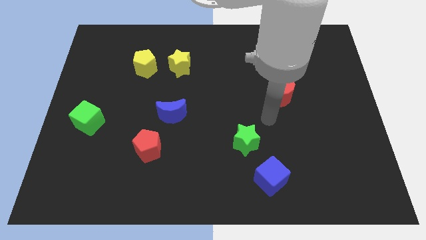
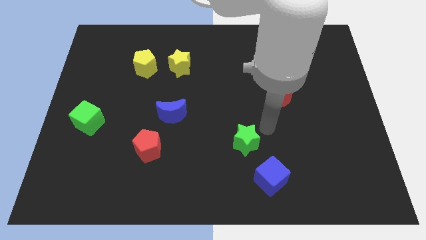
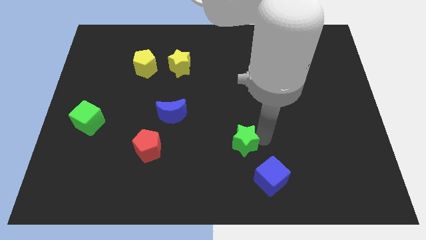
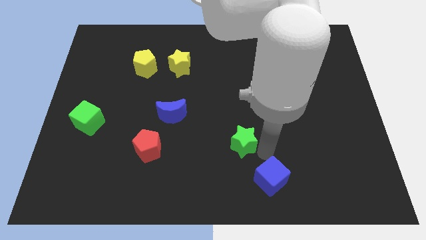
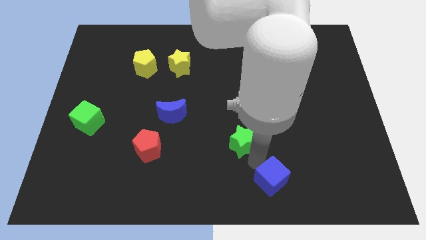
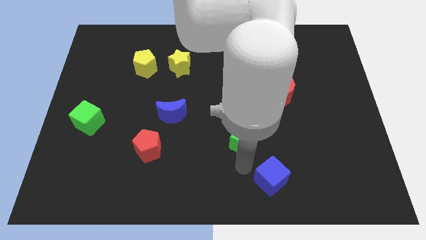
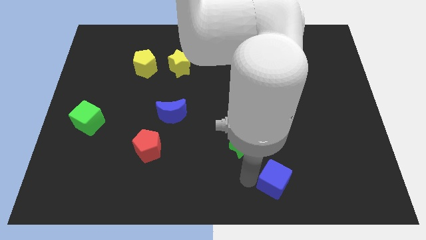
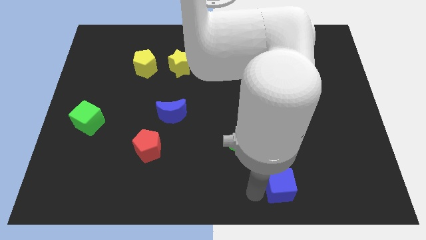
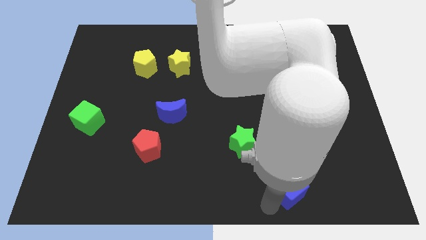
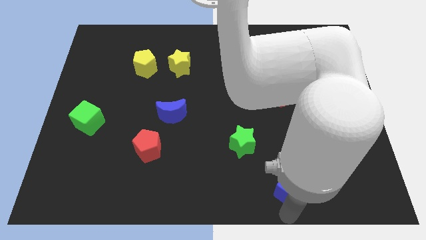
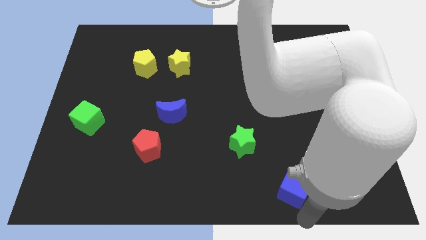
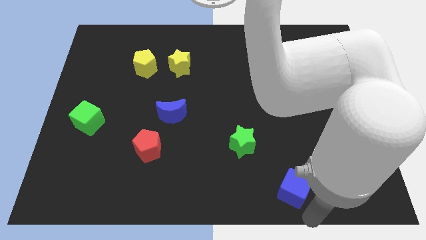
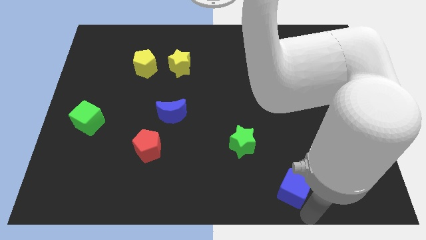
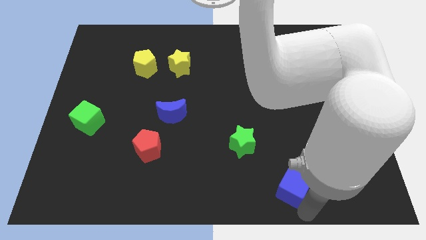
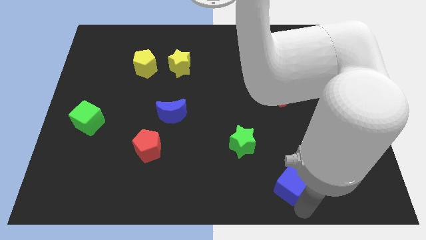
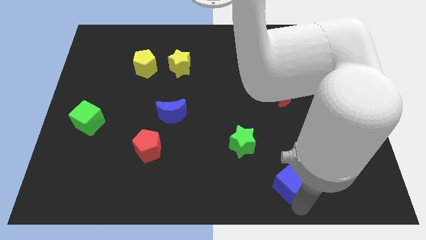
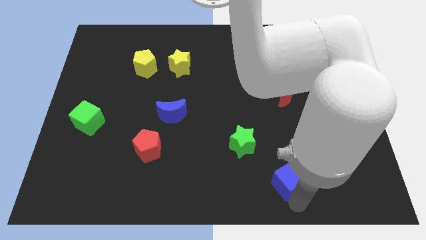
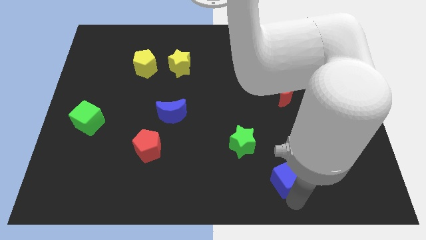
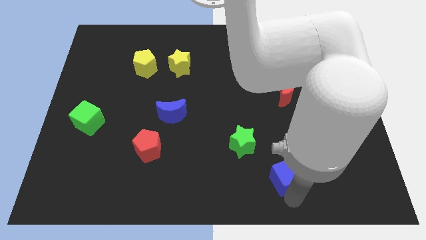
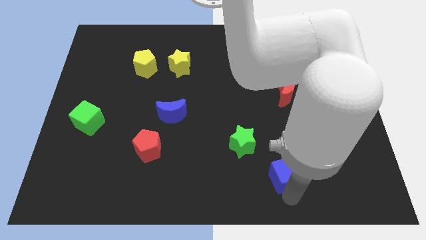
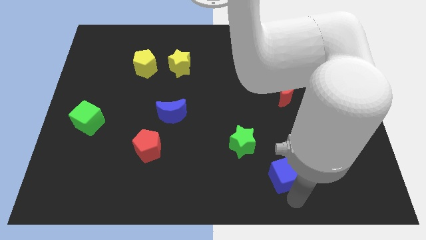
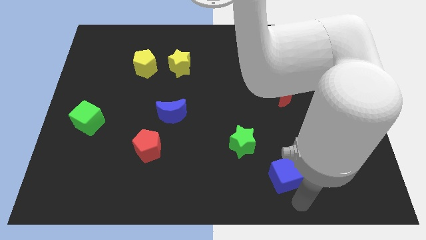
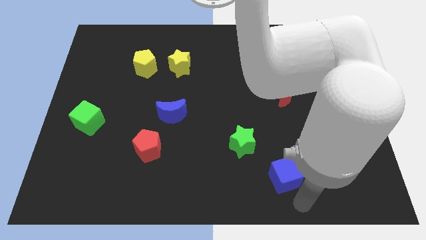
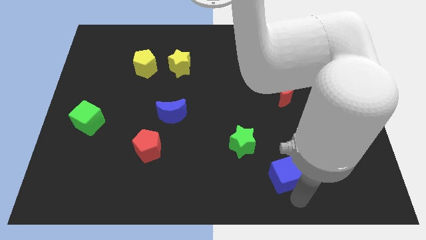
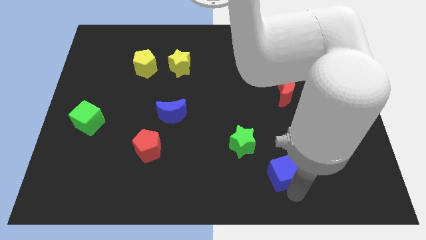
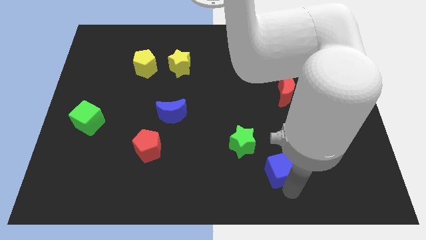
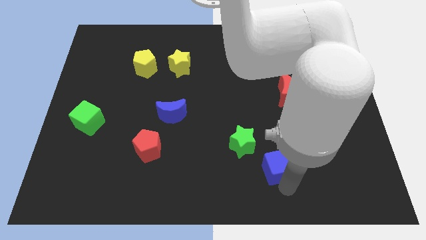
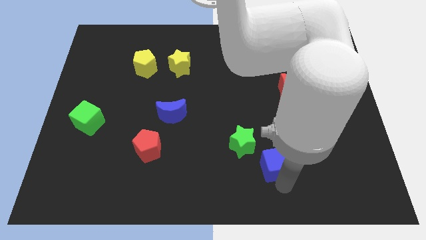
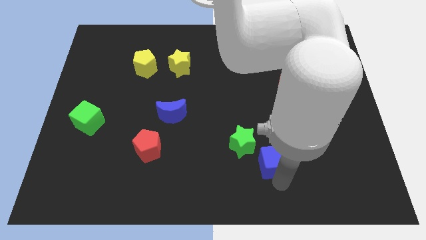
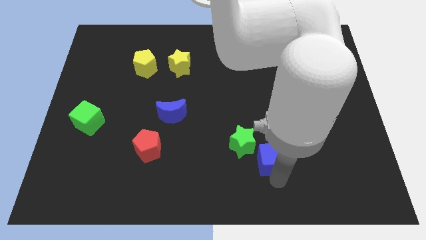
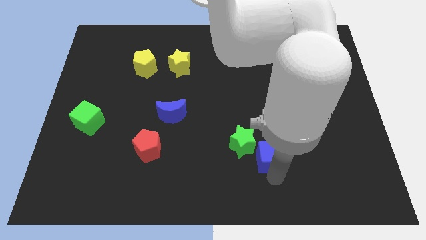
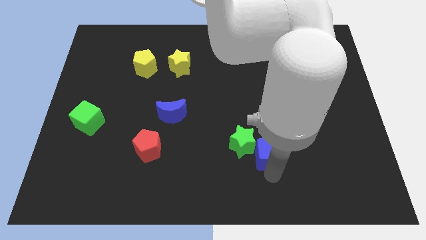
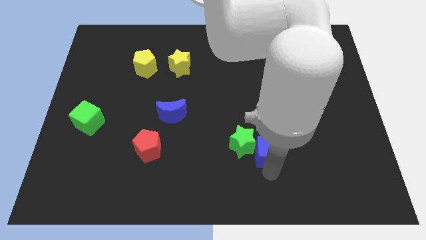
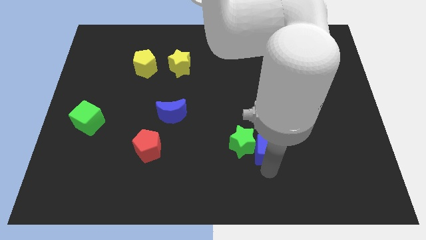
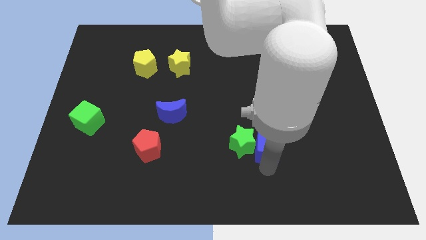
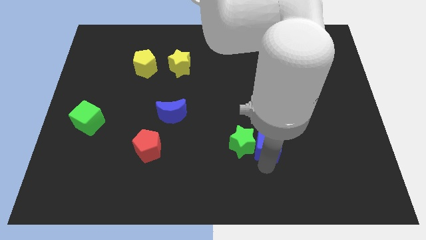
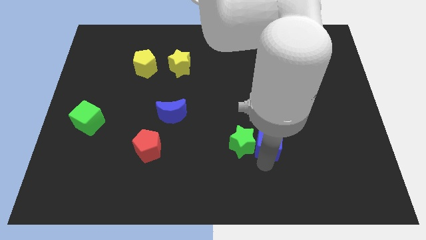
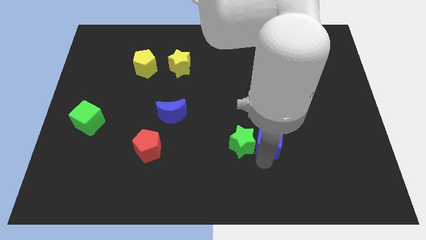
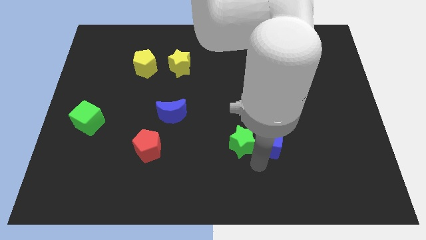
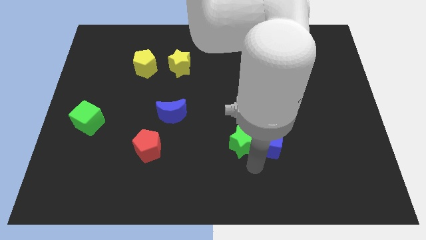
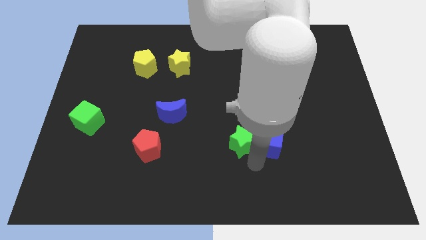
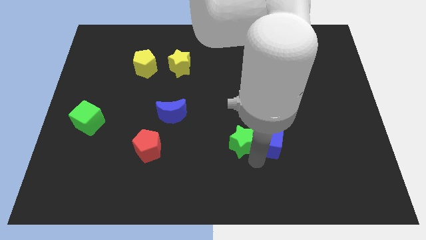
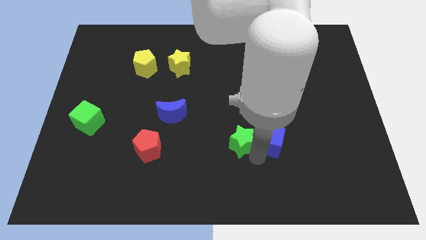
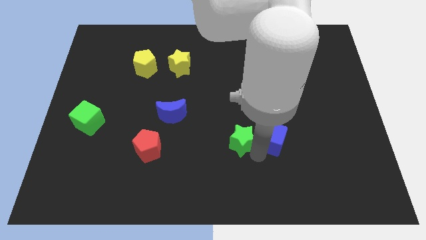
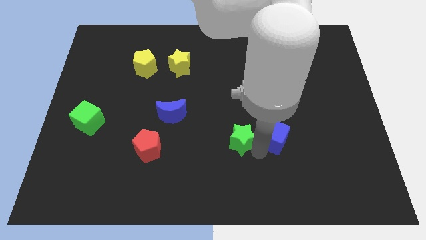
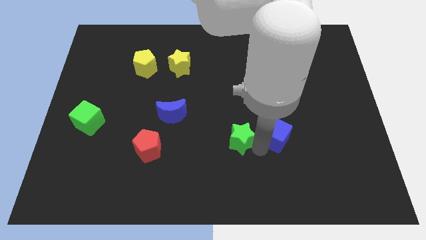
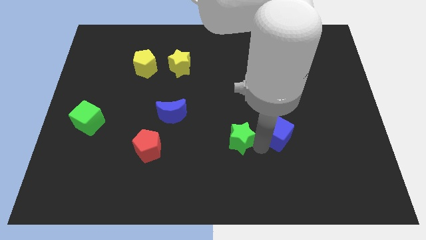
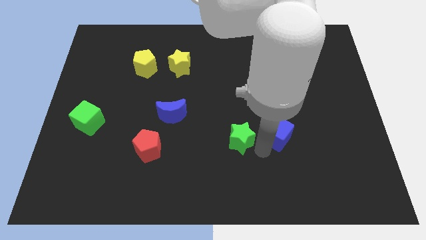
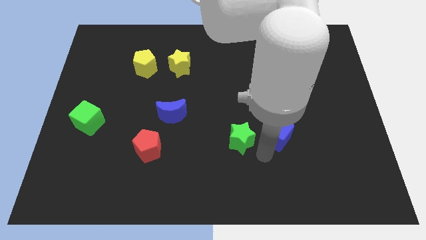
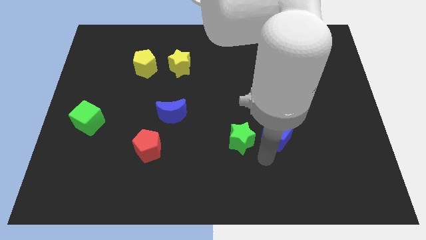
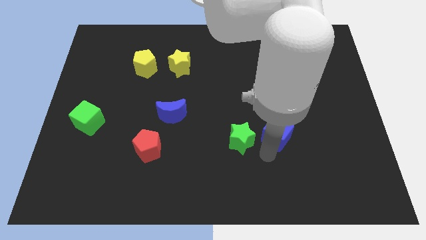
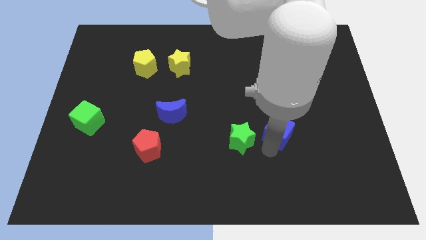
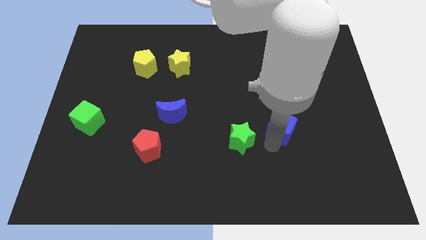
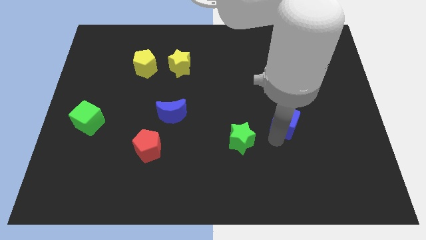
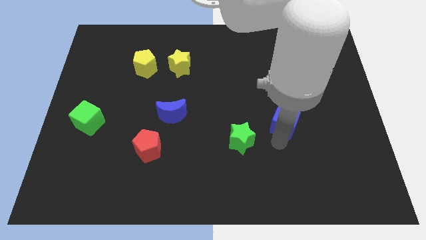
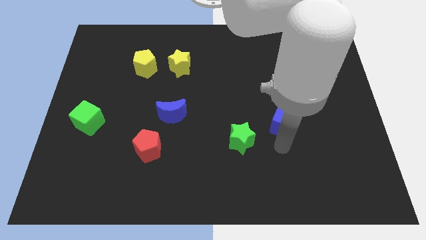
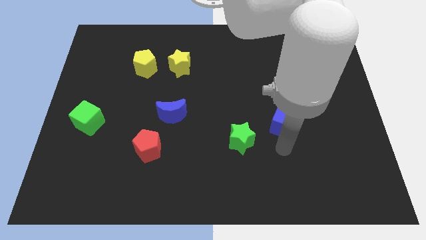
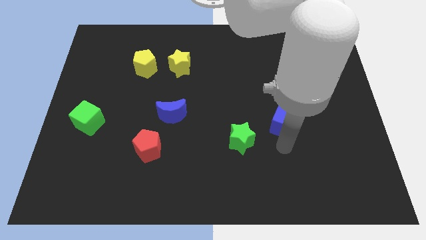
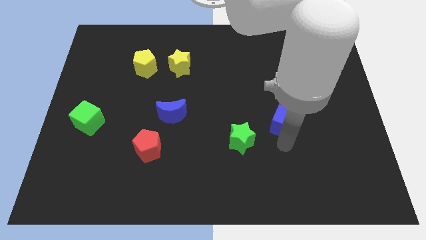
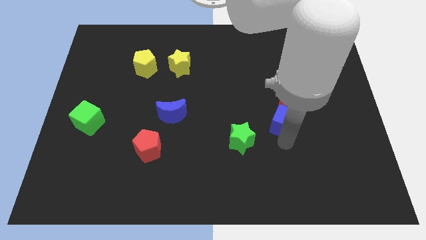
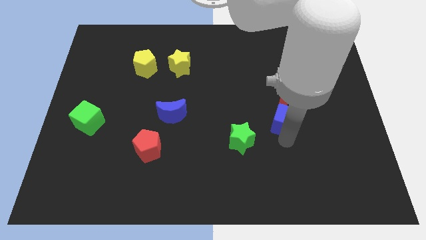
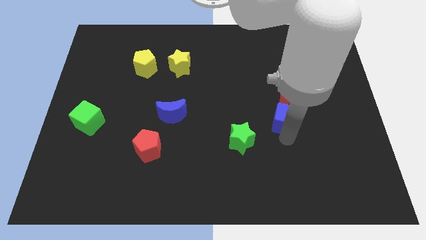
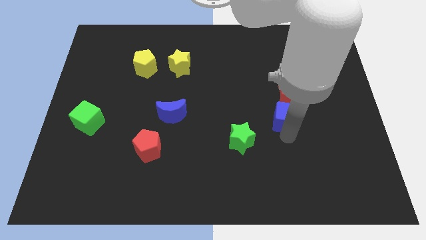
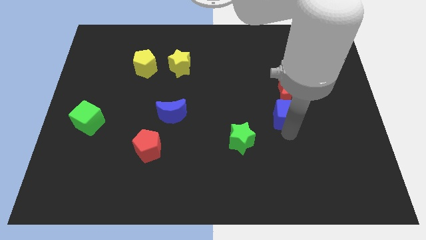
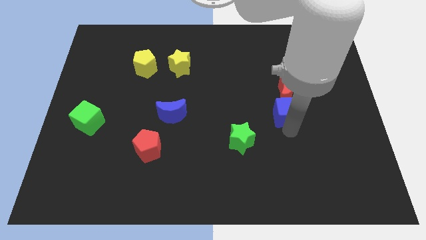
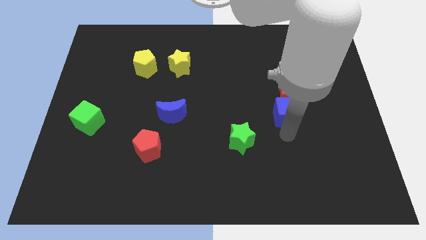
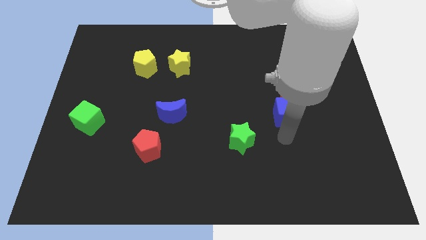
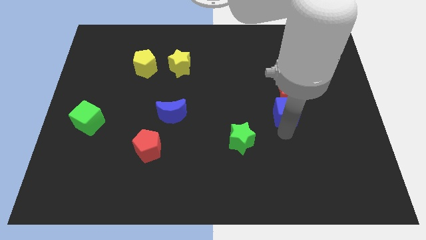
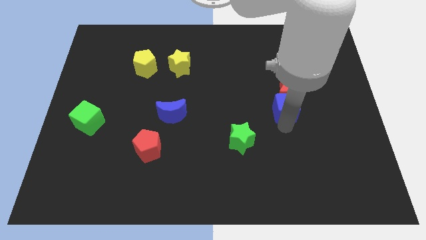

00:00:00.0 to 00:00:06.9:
slide the blue cube to the red moon

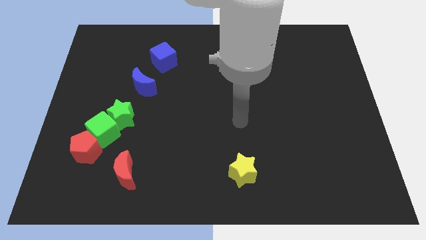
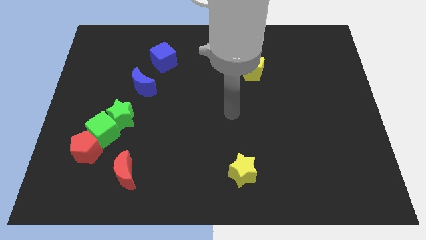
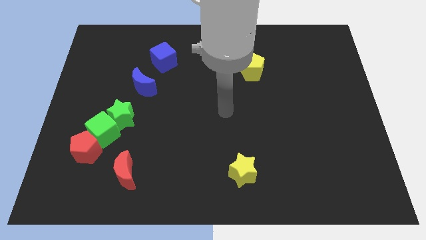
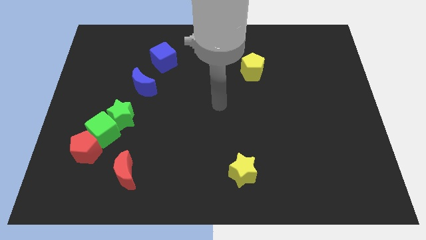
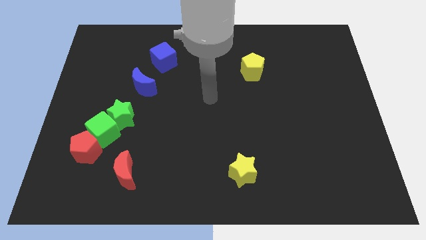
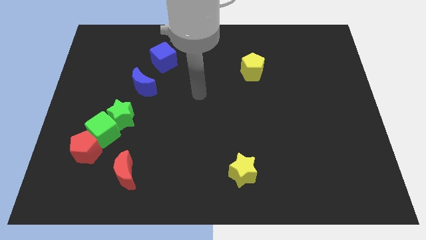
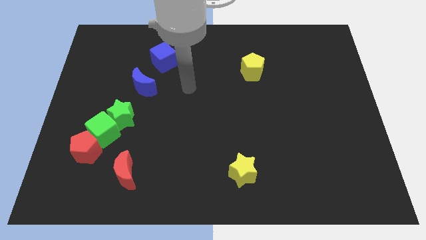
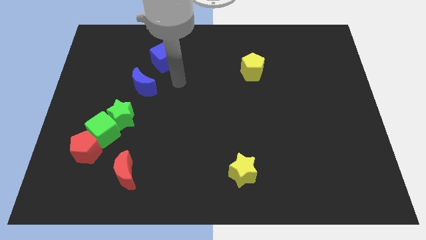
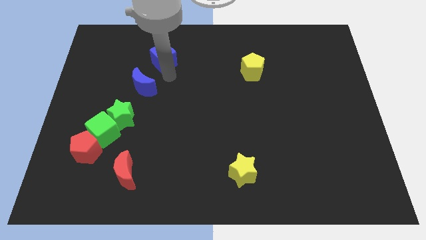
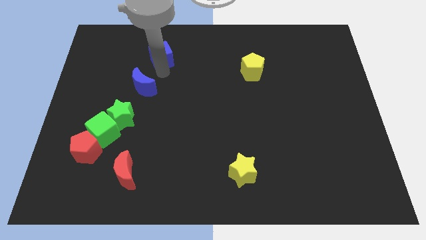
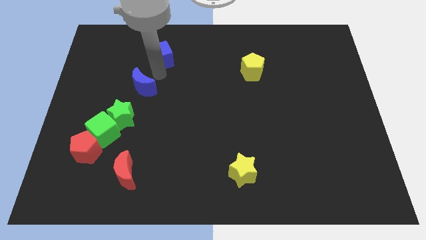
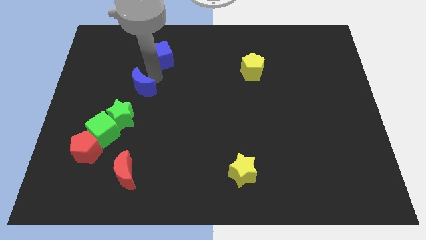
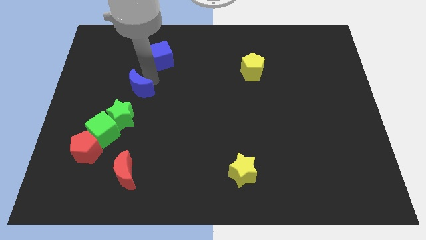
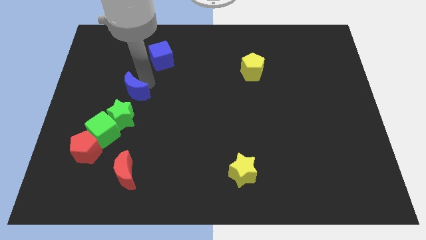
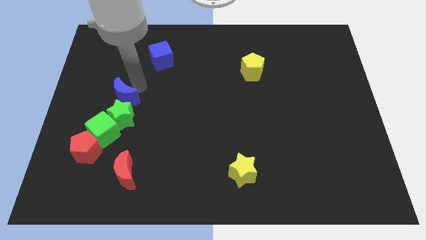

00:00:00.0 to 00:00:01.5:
put the blue moon towards the green star
